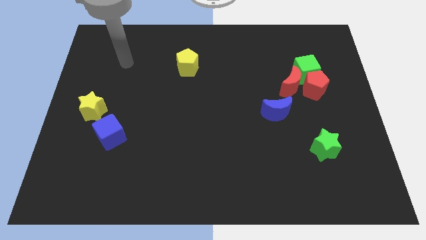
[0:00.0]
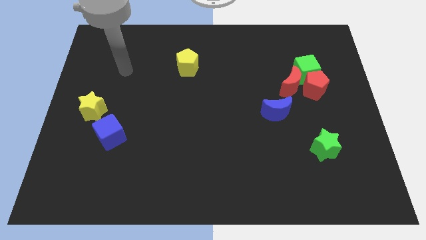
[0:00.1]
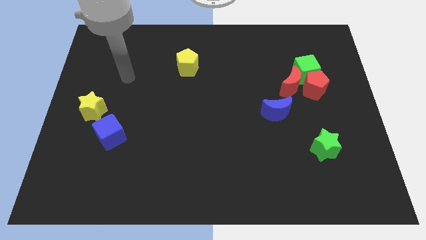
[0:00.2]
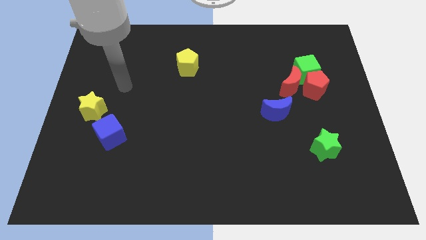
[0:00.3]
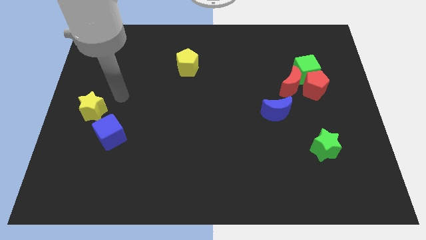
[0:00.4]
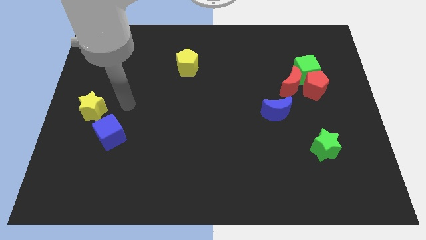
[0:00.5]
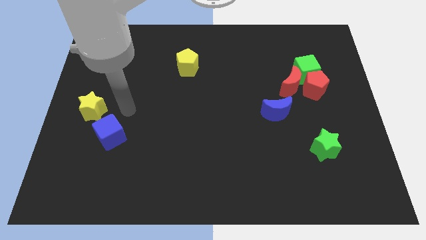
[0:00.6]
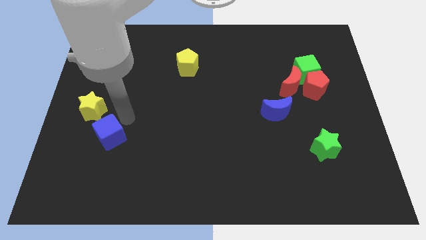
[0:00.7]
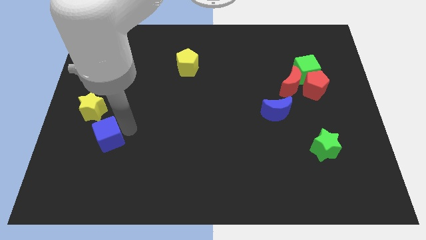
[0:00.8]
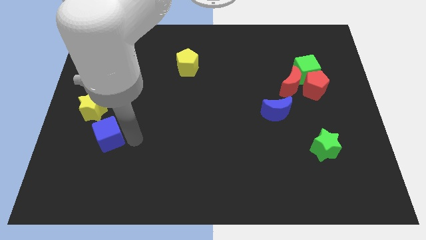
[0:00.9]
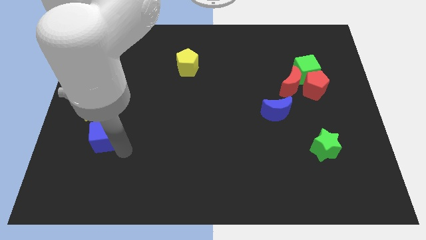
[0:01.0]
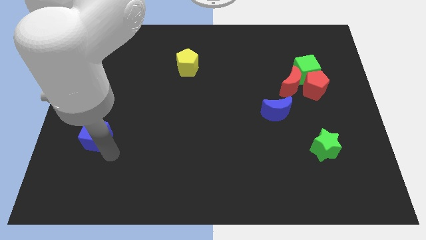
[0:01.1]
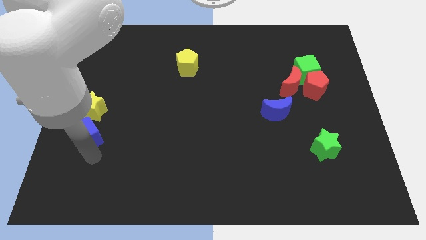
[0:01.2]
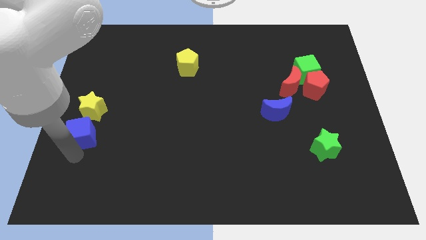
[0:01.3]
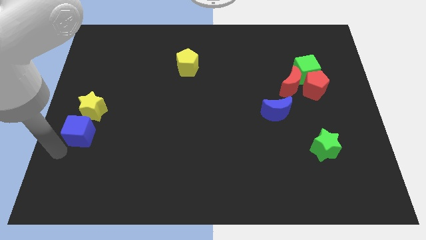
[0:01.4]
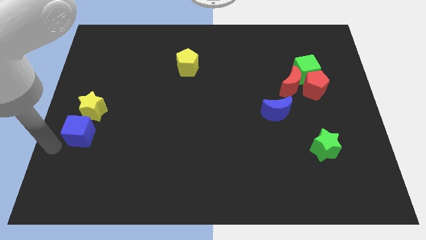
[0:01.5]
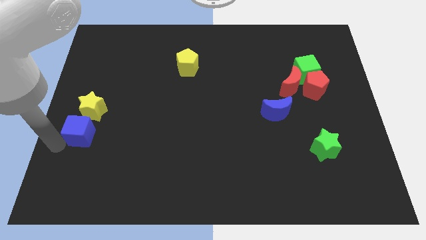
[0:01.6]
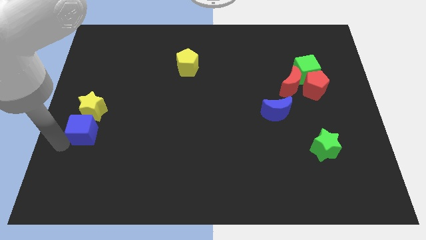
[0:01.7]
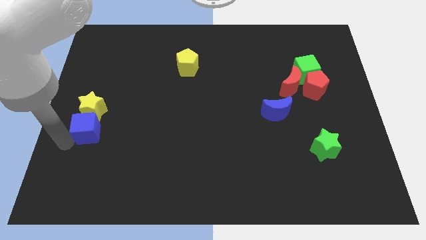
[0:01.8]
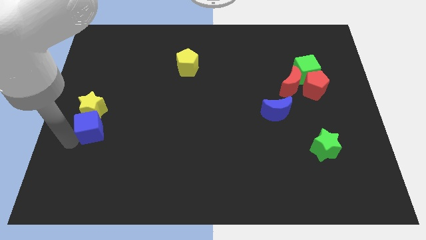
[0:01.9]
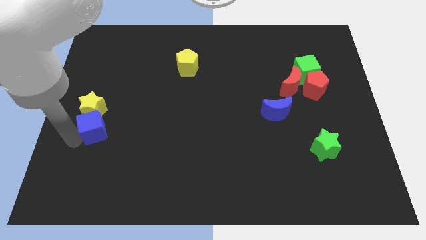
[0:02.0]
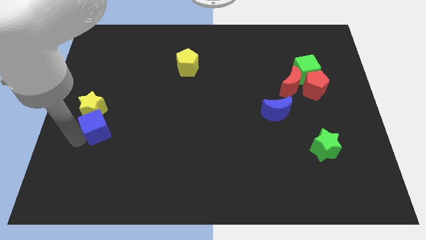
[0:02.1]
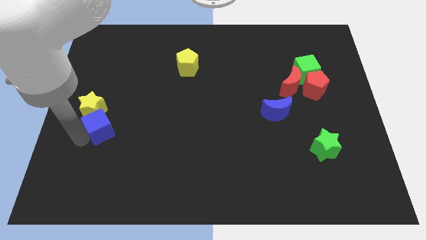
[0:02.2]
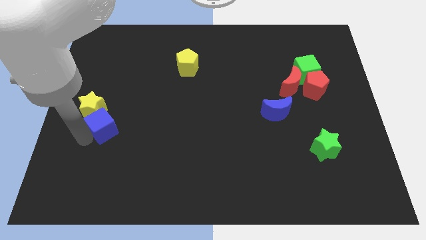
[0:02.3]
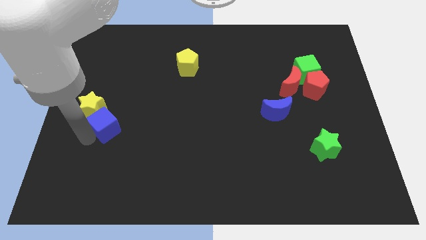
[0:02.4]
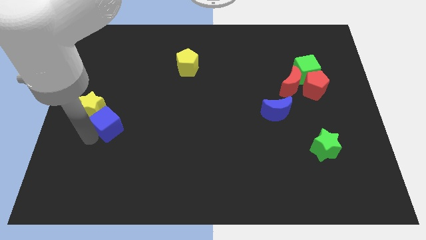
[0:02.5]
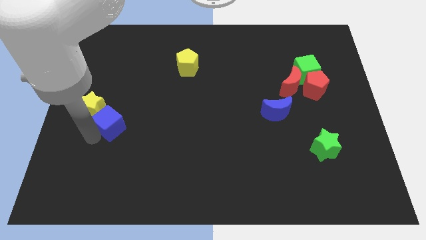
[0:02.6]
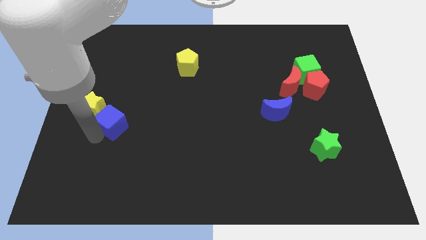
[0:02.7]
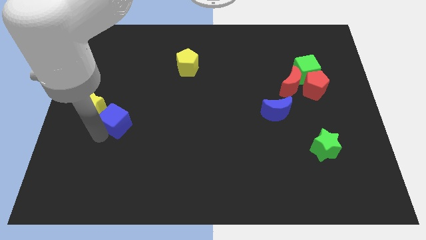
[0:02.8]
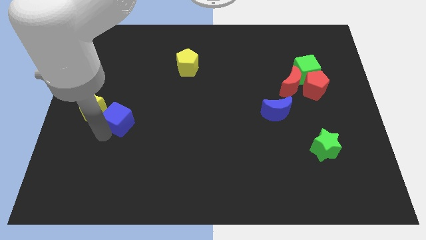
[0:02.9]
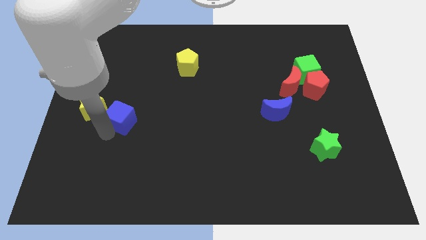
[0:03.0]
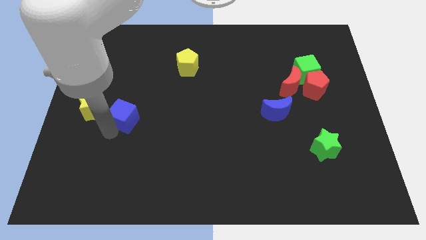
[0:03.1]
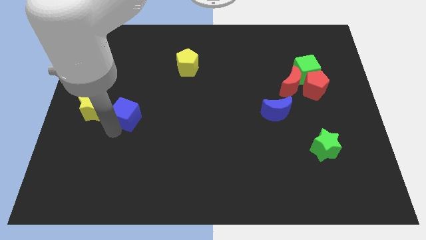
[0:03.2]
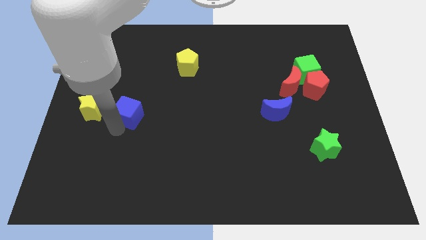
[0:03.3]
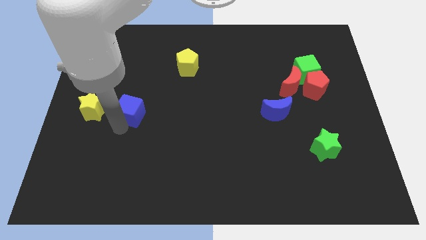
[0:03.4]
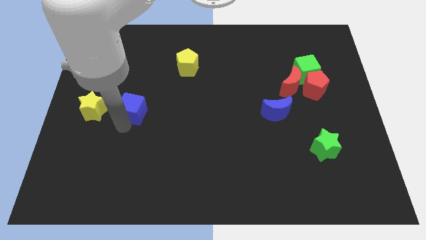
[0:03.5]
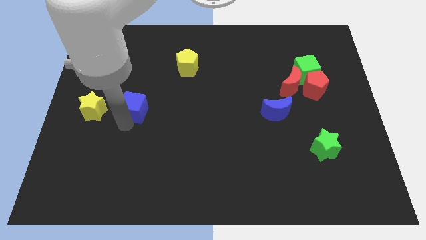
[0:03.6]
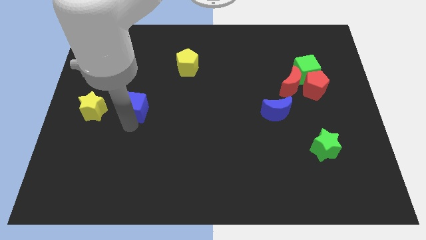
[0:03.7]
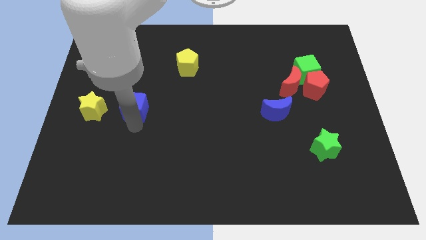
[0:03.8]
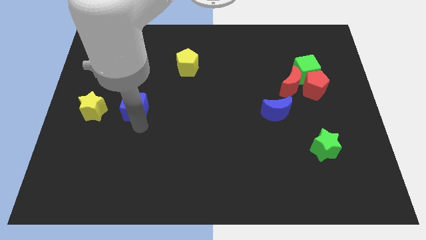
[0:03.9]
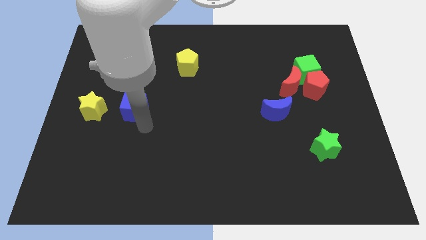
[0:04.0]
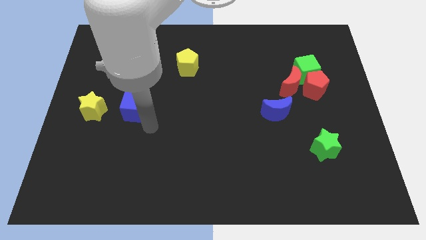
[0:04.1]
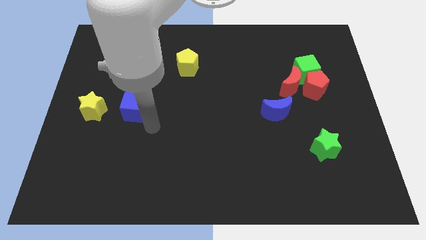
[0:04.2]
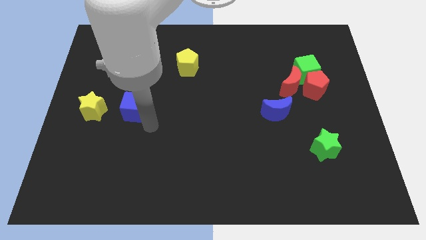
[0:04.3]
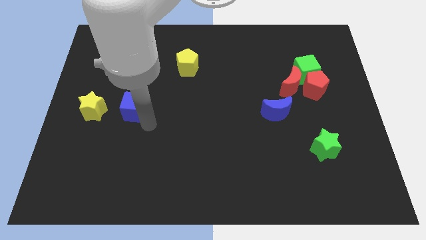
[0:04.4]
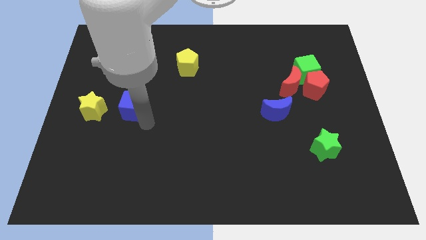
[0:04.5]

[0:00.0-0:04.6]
slide the blue cube upwards a little bit

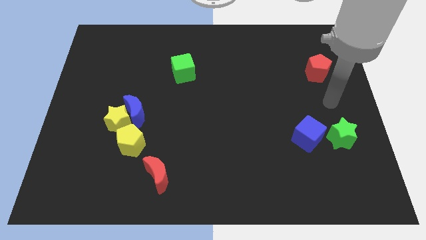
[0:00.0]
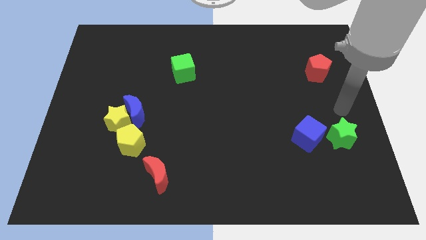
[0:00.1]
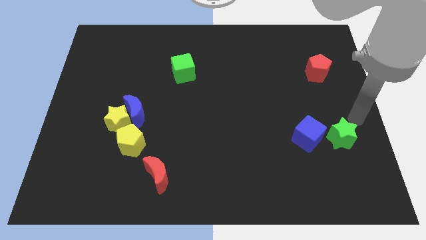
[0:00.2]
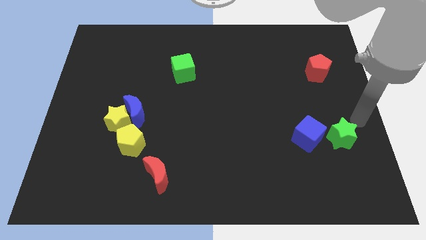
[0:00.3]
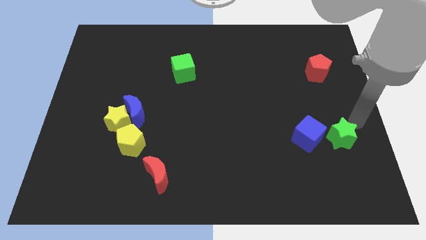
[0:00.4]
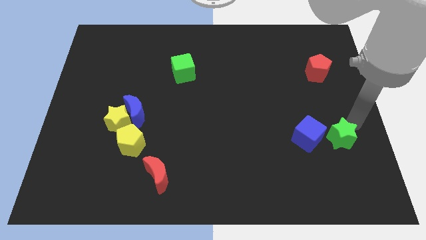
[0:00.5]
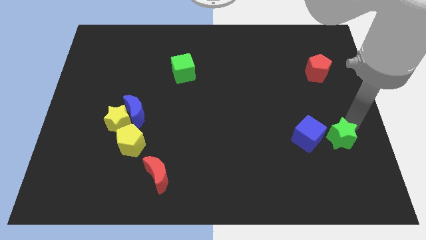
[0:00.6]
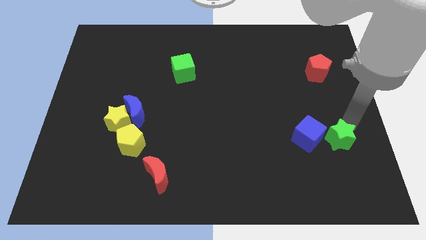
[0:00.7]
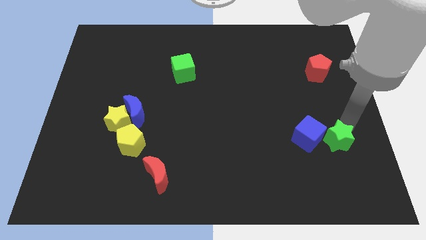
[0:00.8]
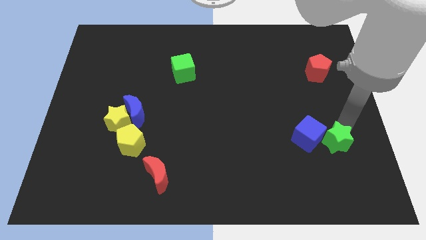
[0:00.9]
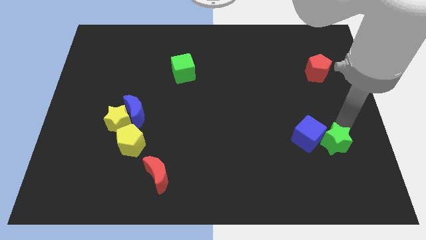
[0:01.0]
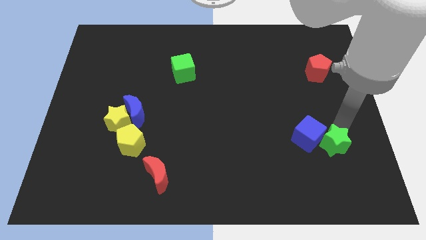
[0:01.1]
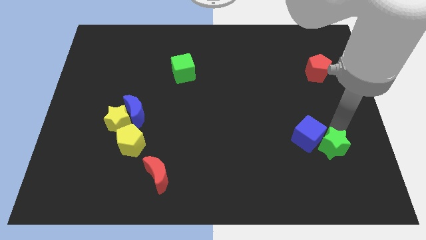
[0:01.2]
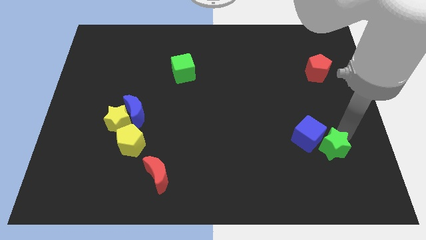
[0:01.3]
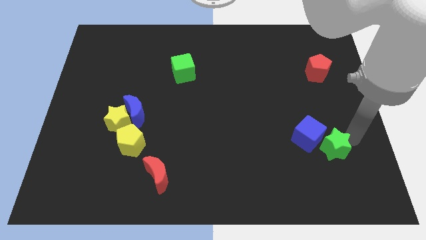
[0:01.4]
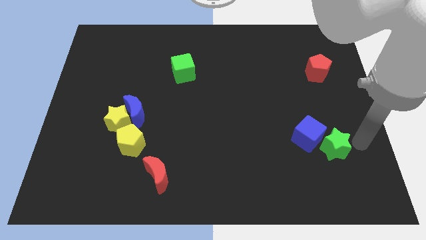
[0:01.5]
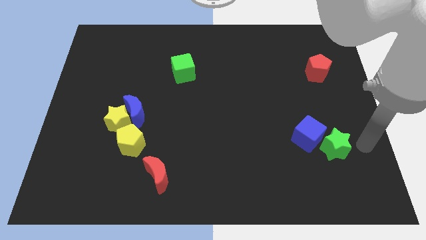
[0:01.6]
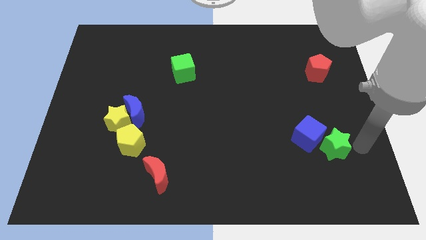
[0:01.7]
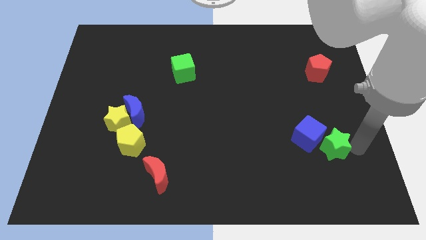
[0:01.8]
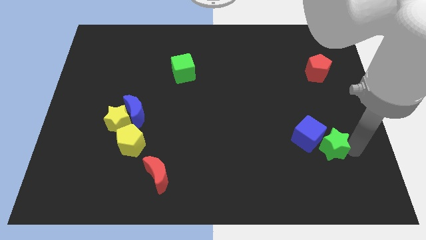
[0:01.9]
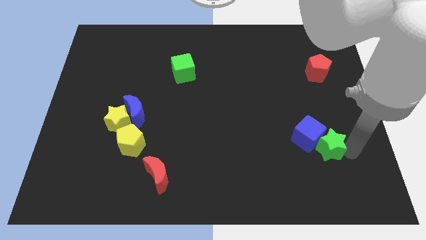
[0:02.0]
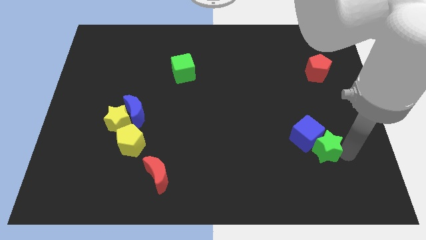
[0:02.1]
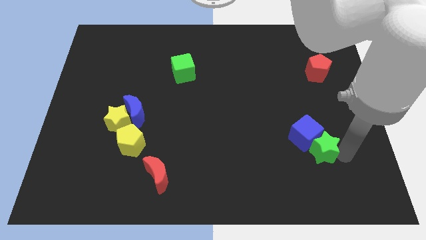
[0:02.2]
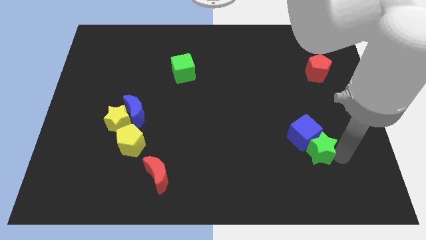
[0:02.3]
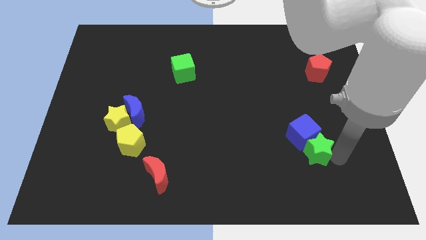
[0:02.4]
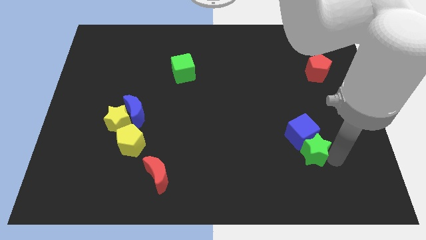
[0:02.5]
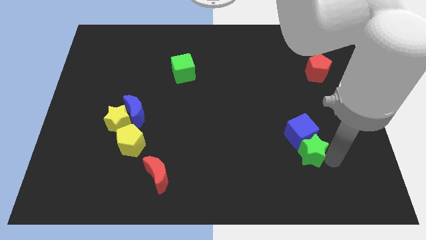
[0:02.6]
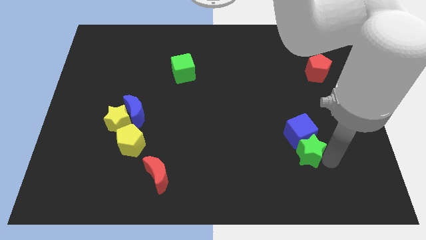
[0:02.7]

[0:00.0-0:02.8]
move the green star left a bit

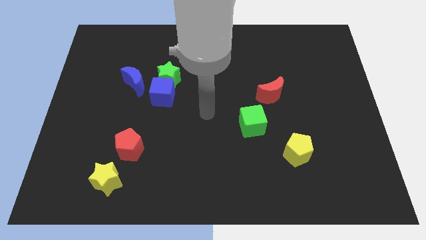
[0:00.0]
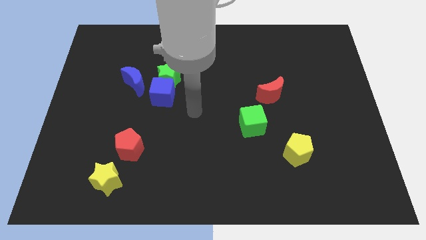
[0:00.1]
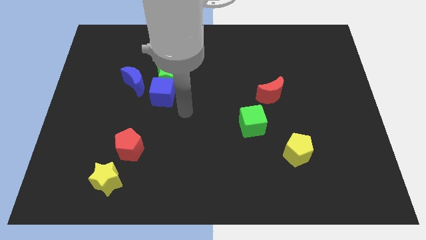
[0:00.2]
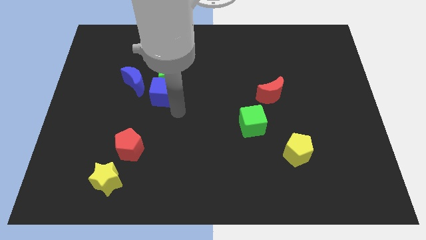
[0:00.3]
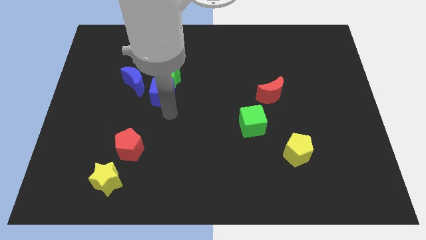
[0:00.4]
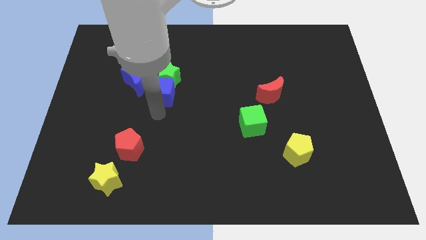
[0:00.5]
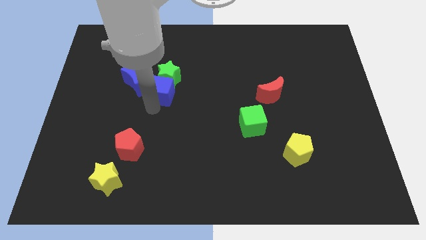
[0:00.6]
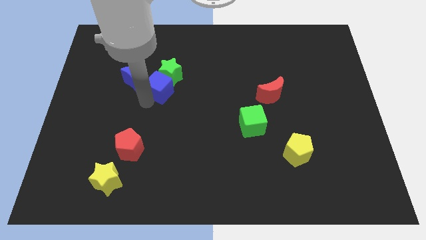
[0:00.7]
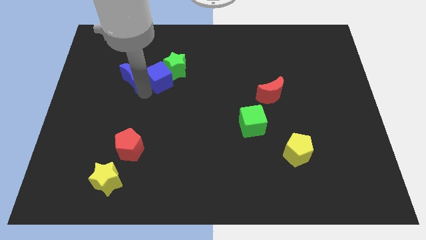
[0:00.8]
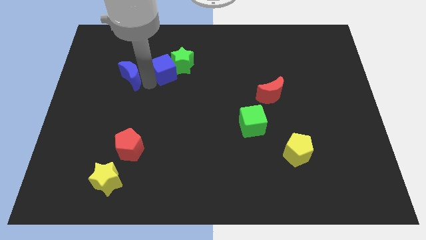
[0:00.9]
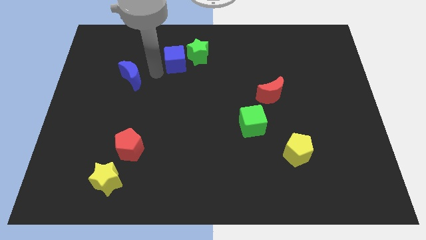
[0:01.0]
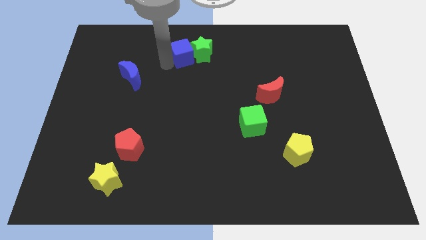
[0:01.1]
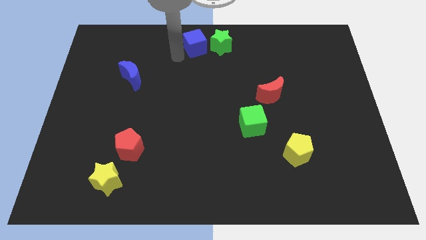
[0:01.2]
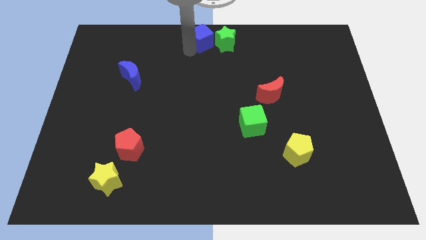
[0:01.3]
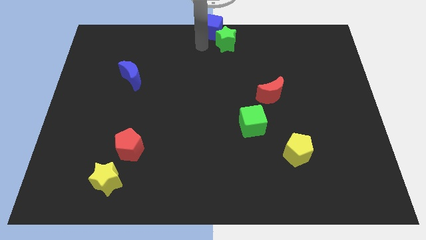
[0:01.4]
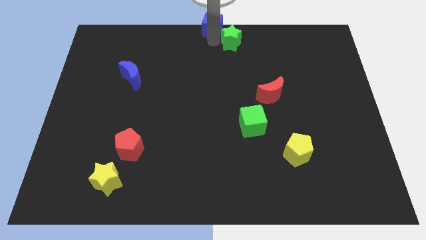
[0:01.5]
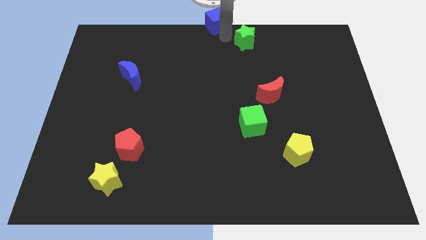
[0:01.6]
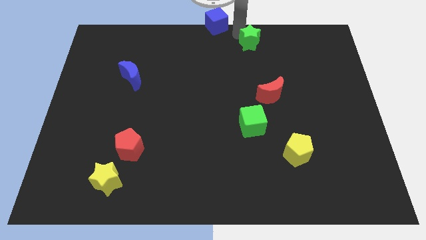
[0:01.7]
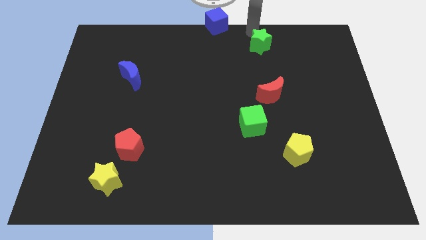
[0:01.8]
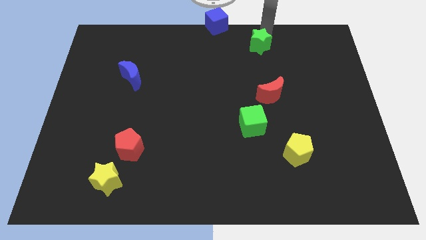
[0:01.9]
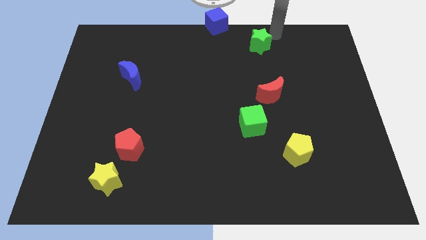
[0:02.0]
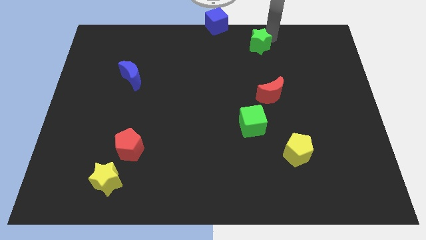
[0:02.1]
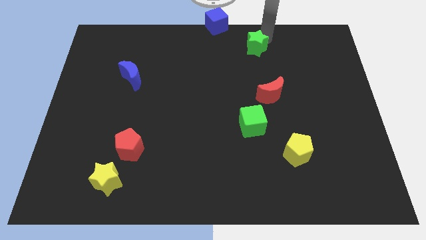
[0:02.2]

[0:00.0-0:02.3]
slightly move the green star right
